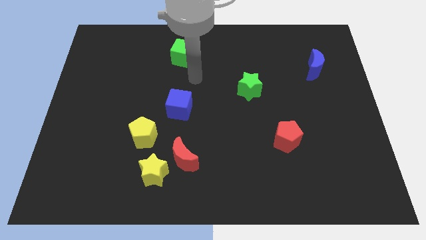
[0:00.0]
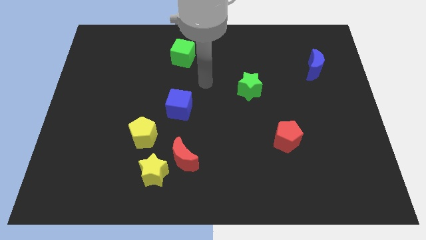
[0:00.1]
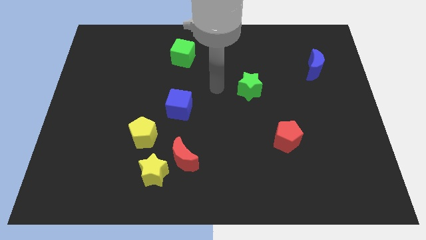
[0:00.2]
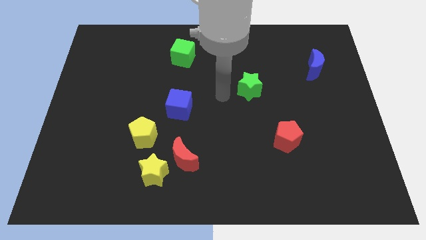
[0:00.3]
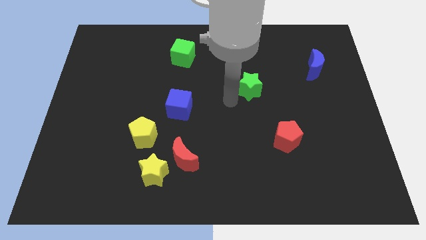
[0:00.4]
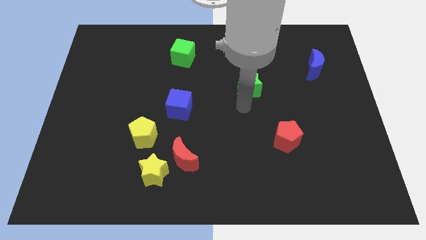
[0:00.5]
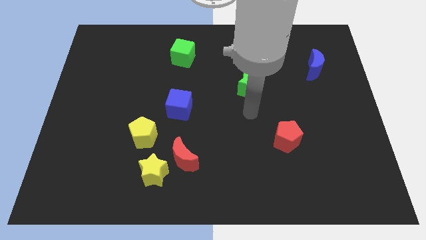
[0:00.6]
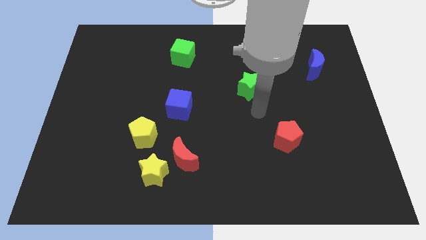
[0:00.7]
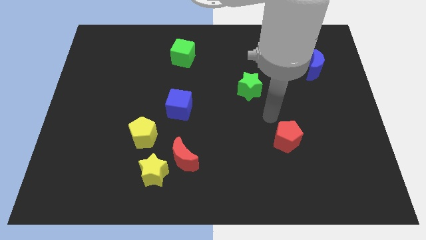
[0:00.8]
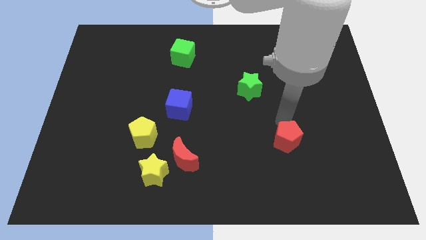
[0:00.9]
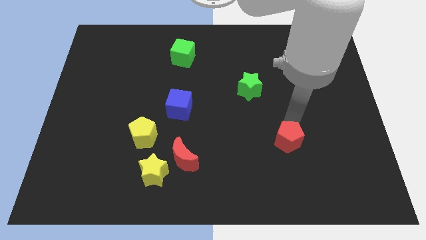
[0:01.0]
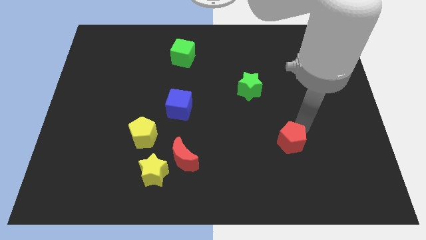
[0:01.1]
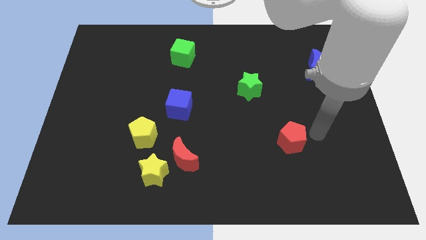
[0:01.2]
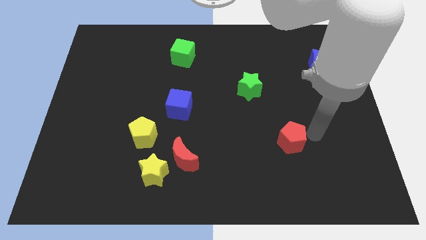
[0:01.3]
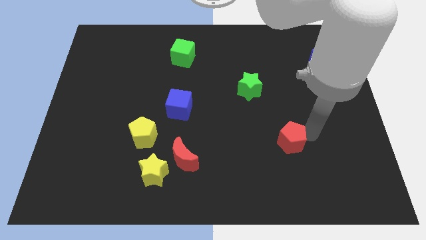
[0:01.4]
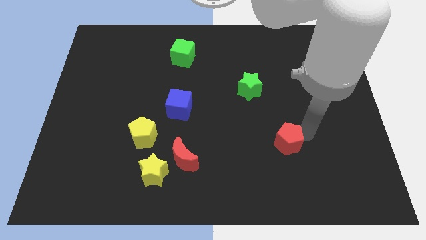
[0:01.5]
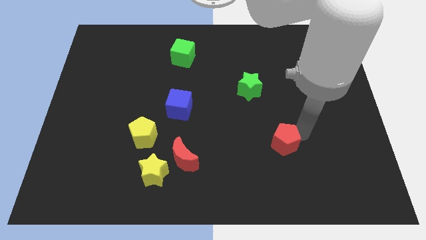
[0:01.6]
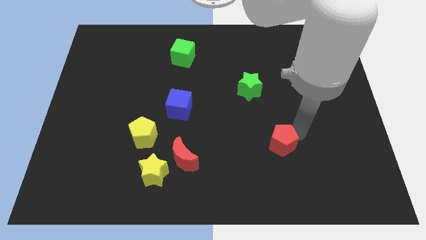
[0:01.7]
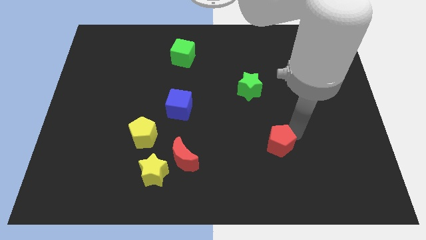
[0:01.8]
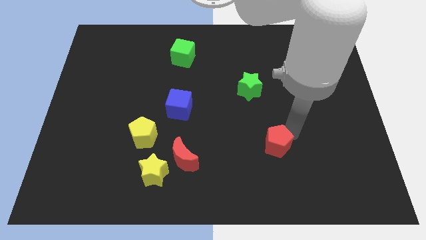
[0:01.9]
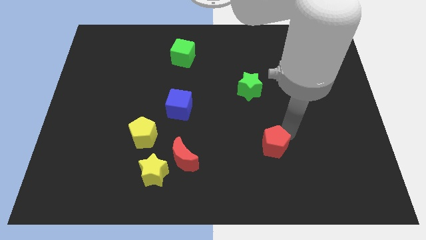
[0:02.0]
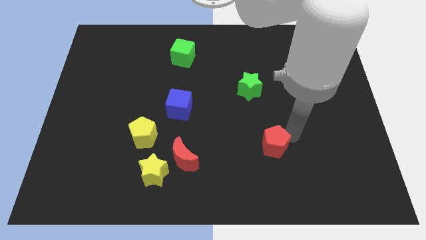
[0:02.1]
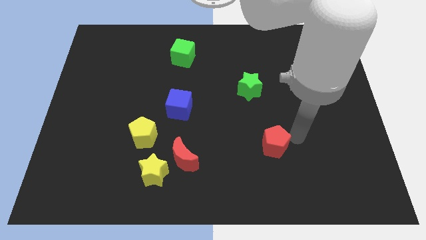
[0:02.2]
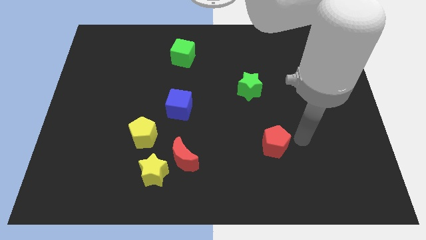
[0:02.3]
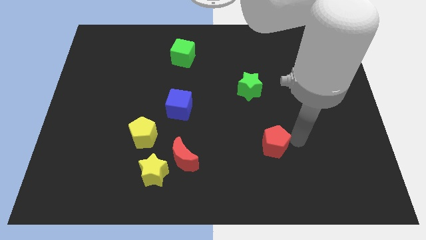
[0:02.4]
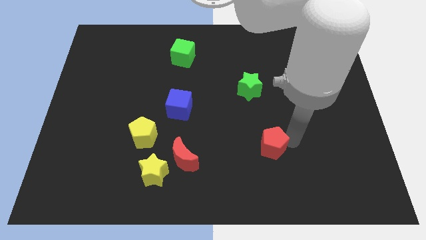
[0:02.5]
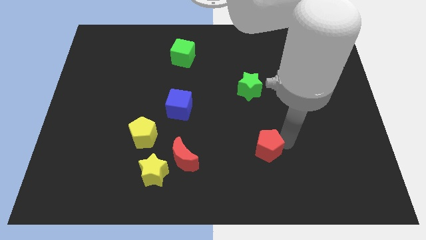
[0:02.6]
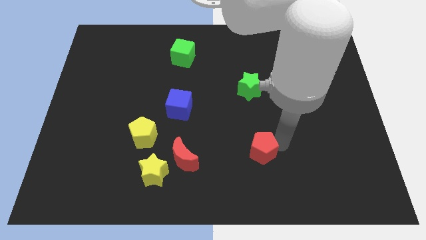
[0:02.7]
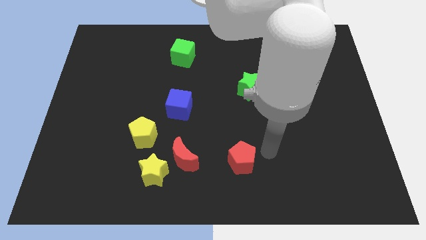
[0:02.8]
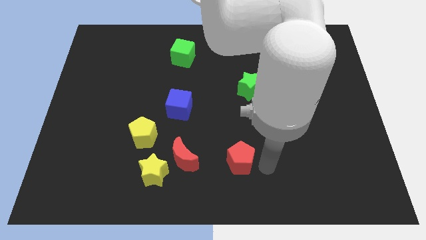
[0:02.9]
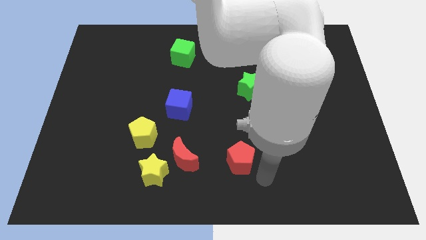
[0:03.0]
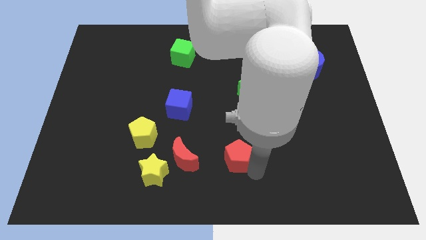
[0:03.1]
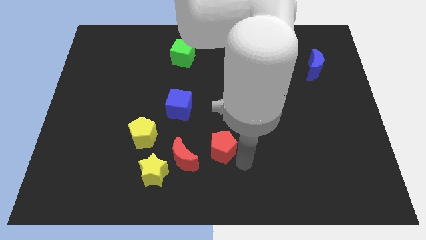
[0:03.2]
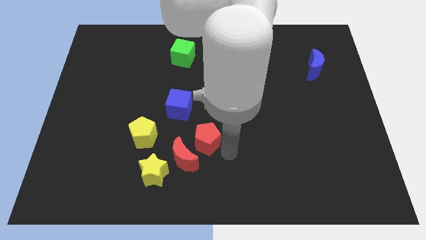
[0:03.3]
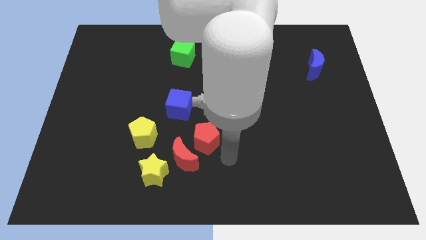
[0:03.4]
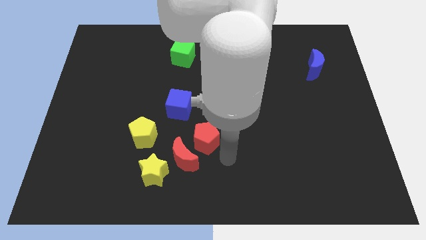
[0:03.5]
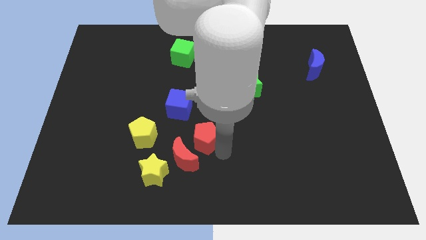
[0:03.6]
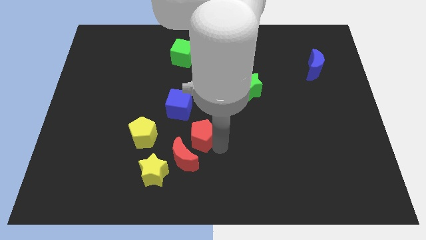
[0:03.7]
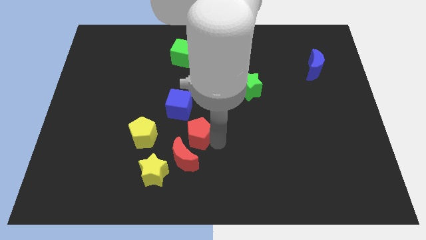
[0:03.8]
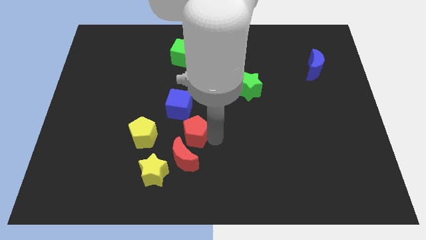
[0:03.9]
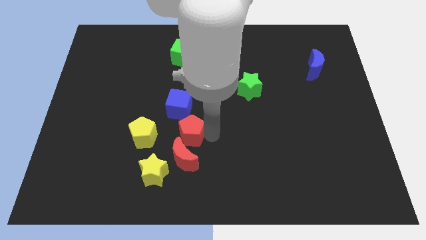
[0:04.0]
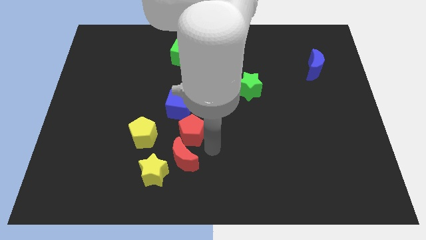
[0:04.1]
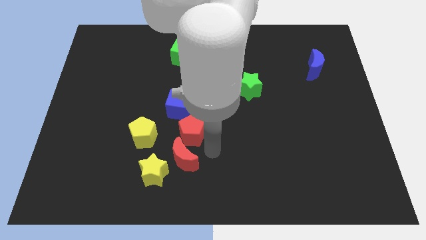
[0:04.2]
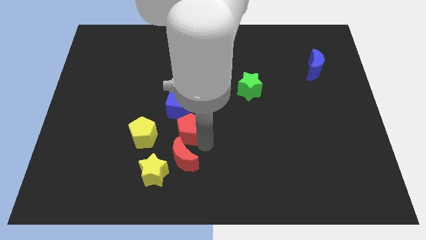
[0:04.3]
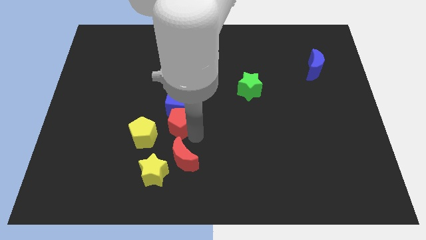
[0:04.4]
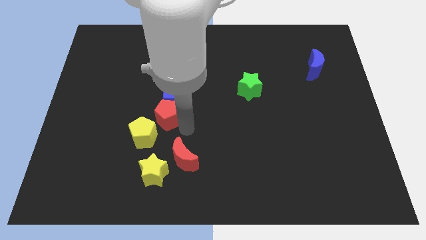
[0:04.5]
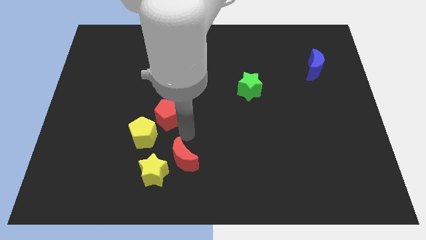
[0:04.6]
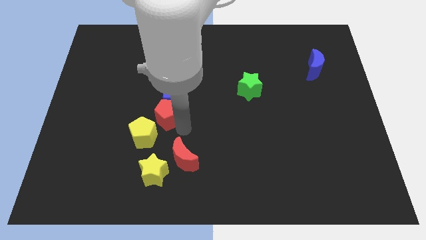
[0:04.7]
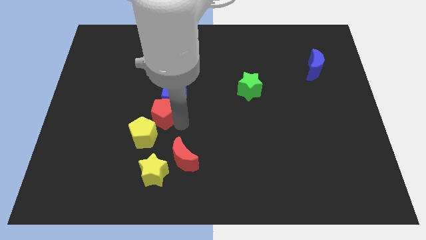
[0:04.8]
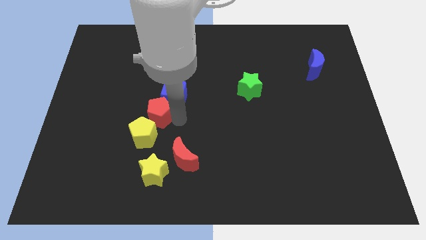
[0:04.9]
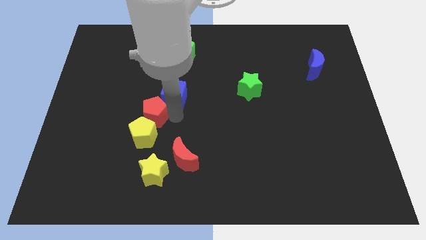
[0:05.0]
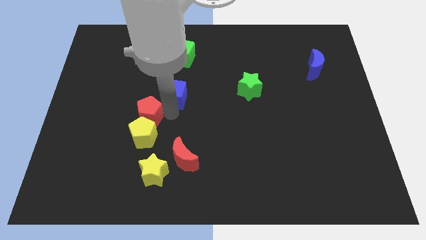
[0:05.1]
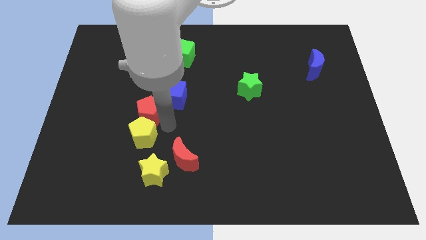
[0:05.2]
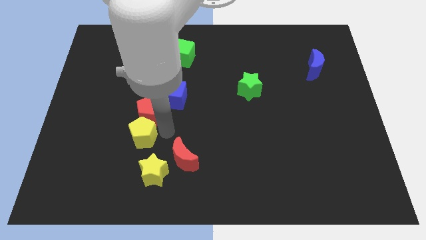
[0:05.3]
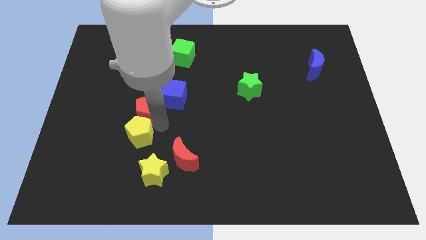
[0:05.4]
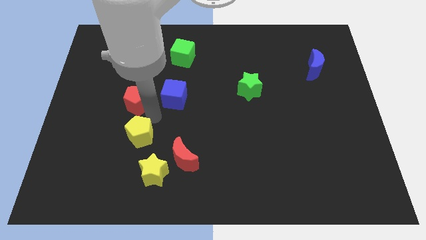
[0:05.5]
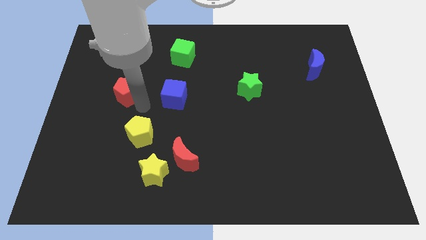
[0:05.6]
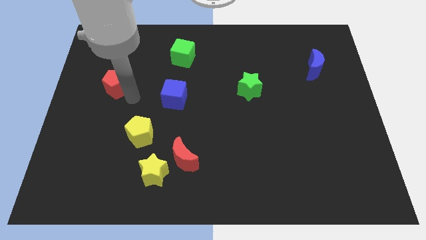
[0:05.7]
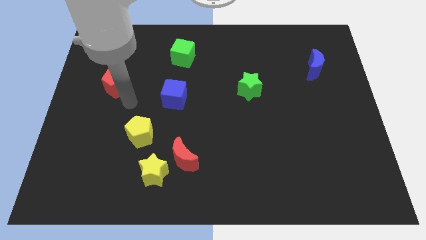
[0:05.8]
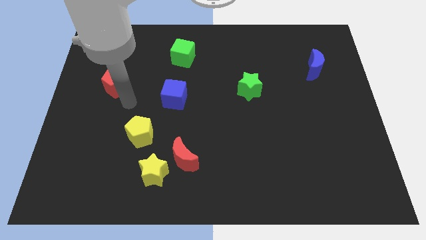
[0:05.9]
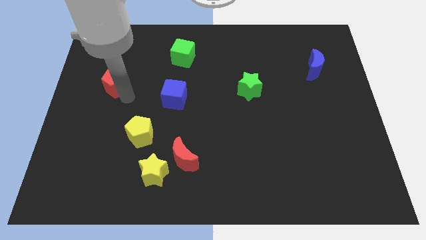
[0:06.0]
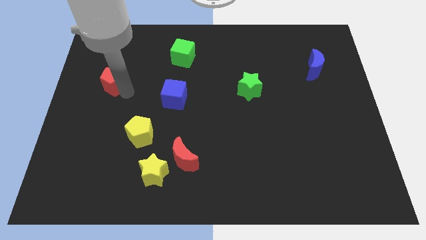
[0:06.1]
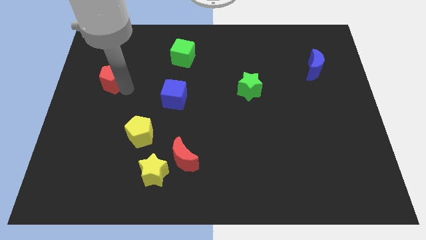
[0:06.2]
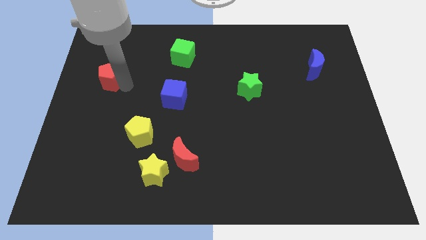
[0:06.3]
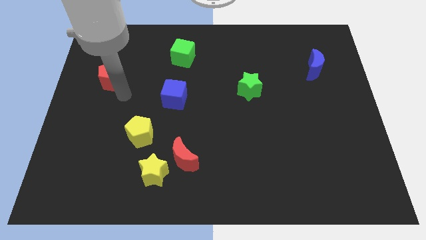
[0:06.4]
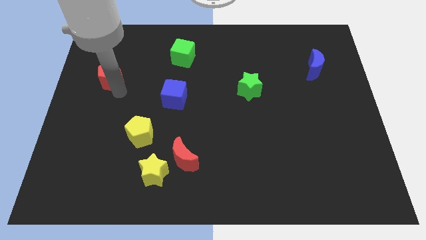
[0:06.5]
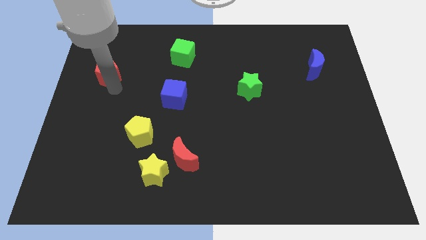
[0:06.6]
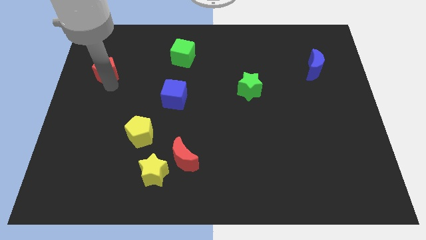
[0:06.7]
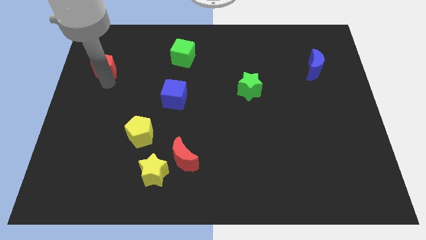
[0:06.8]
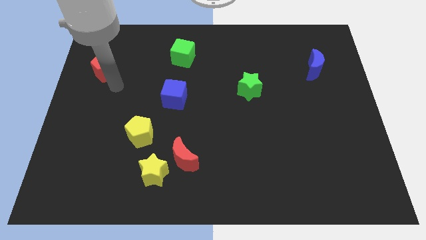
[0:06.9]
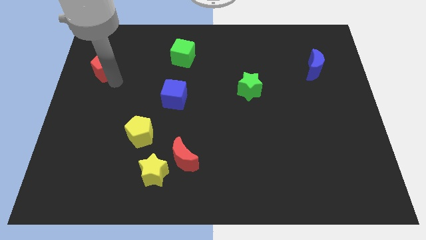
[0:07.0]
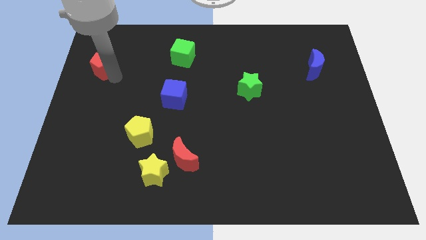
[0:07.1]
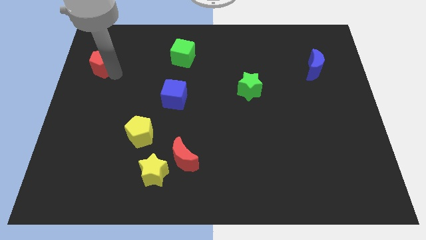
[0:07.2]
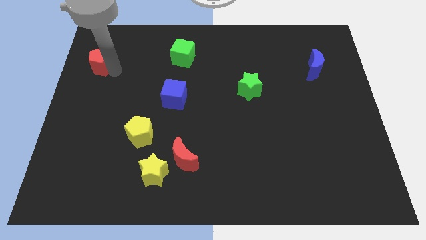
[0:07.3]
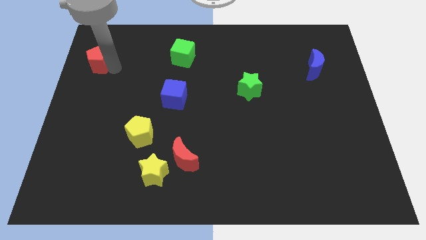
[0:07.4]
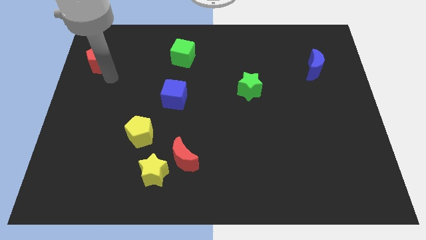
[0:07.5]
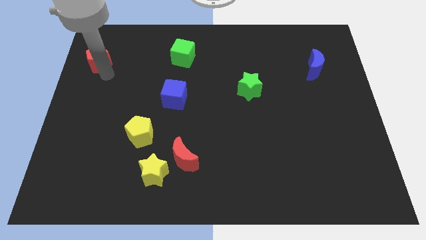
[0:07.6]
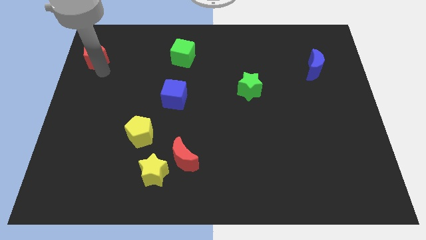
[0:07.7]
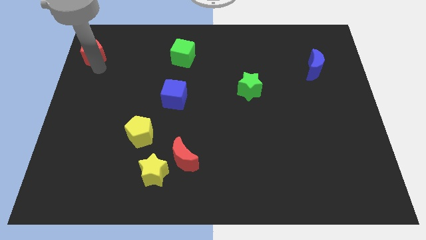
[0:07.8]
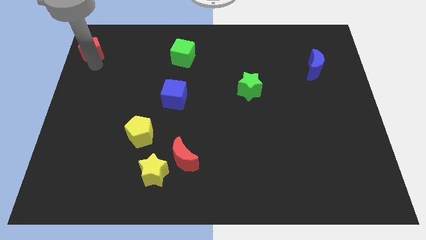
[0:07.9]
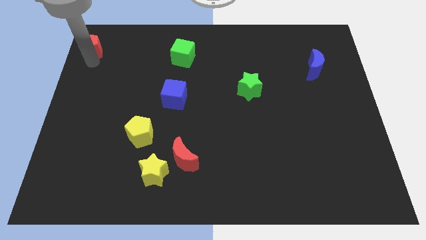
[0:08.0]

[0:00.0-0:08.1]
put the red pentagon to the upper left corner
